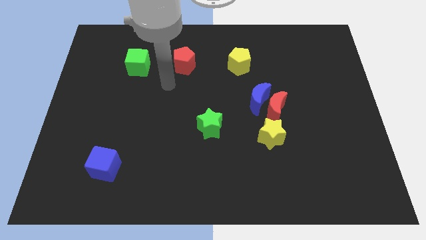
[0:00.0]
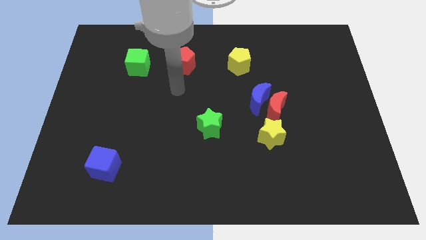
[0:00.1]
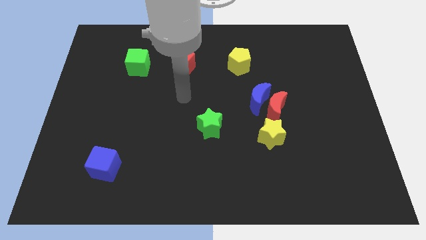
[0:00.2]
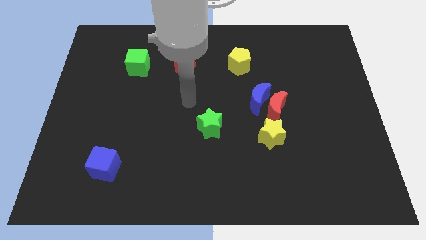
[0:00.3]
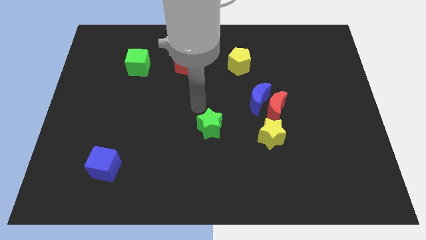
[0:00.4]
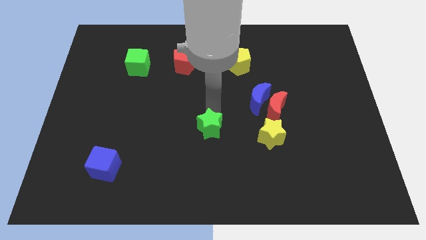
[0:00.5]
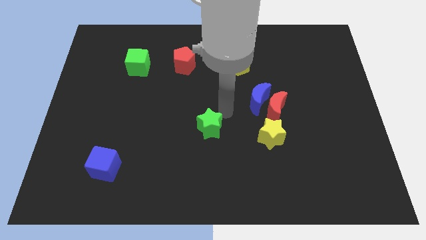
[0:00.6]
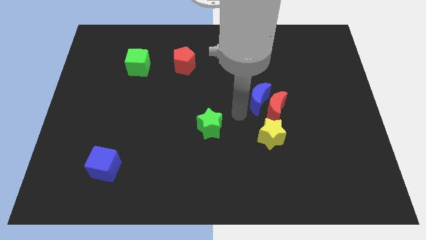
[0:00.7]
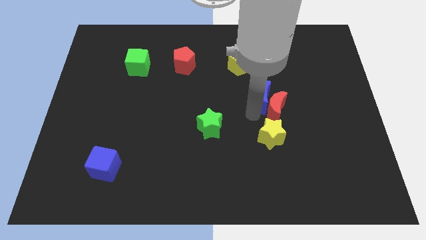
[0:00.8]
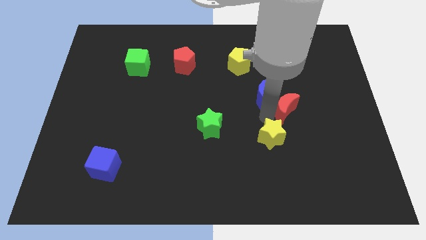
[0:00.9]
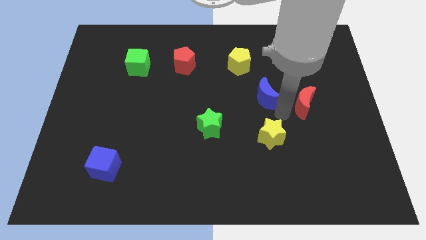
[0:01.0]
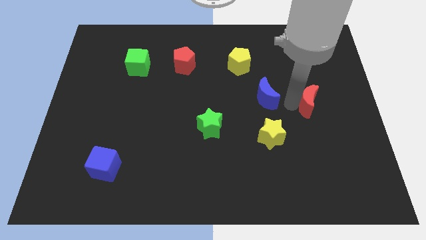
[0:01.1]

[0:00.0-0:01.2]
pull the blue moon apart from the red moon

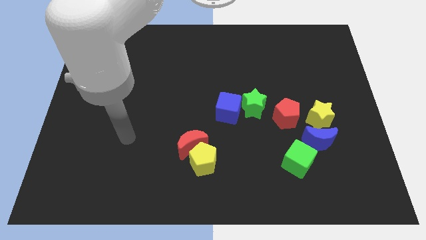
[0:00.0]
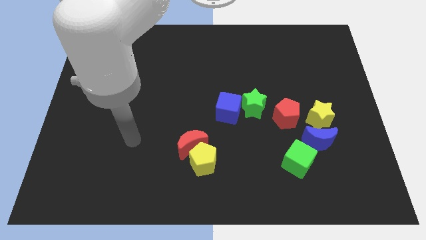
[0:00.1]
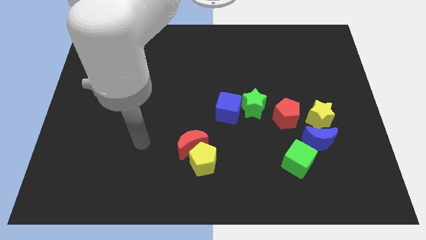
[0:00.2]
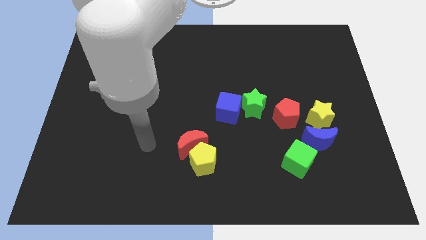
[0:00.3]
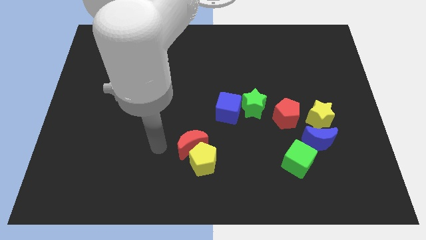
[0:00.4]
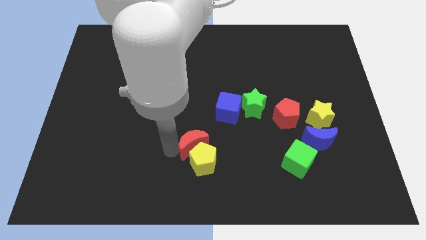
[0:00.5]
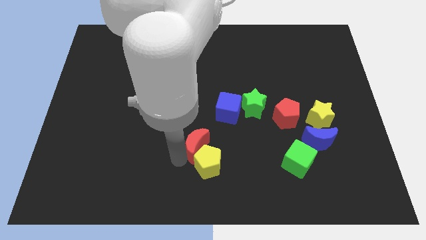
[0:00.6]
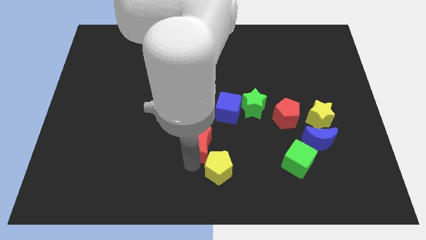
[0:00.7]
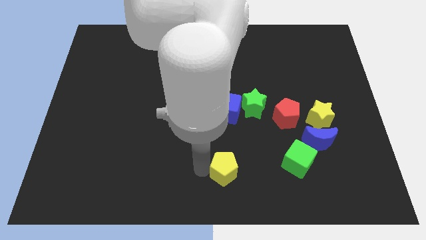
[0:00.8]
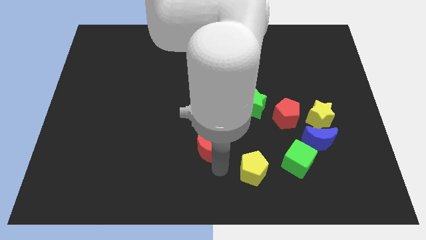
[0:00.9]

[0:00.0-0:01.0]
pull the red moon apart from the yellow pentagon

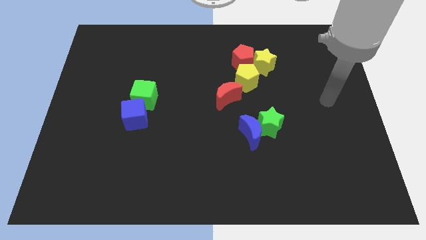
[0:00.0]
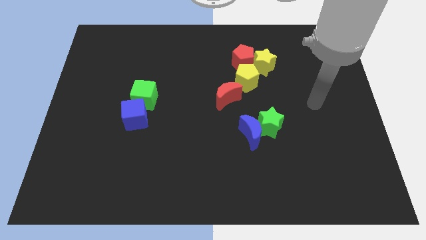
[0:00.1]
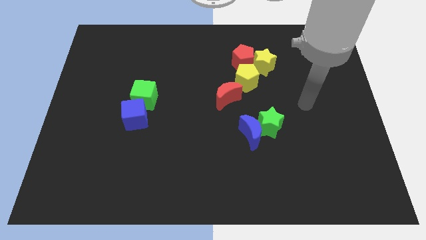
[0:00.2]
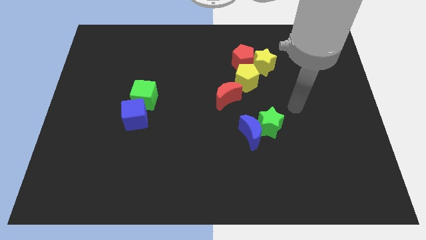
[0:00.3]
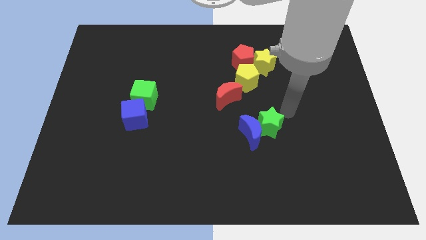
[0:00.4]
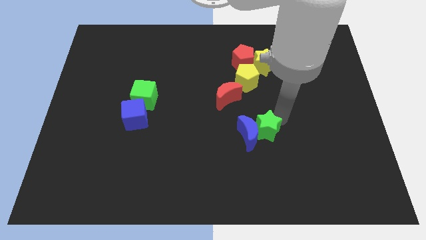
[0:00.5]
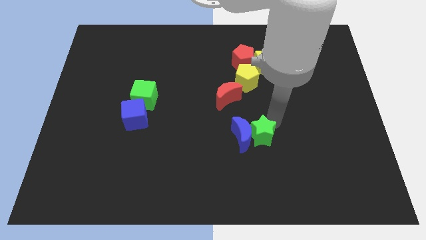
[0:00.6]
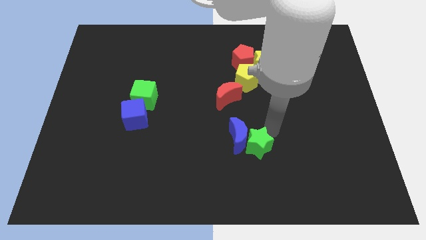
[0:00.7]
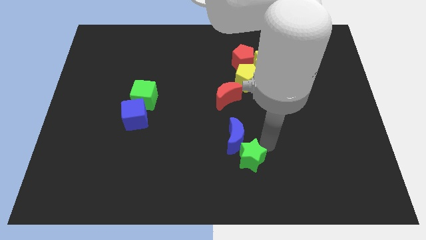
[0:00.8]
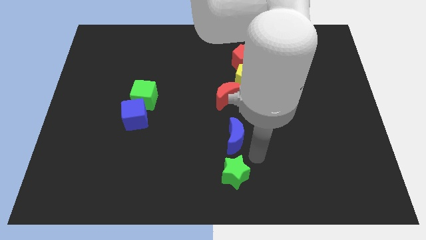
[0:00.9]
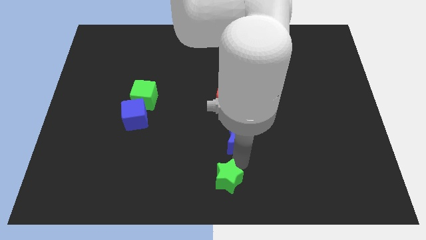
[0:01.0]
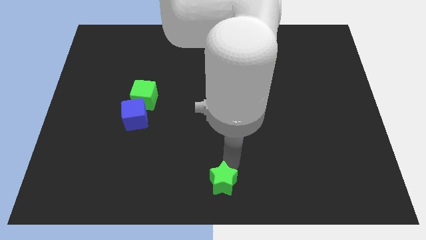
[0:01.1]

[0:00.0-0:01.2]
separate the blue moon from the green star

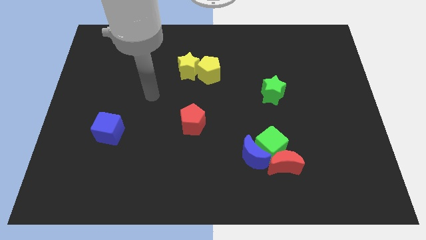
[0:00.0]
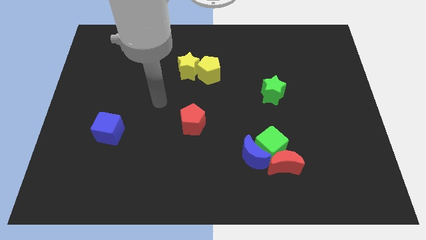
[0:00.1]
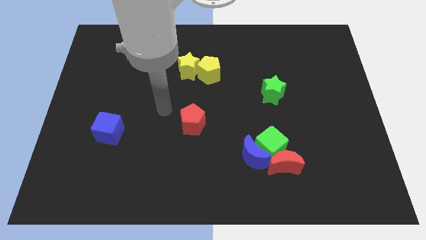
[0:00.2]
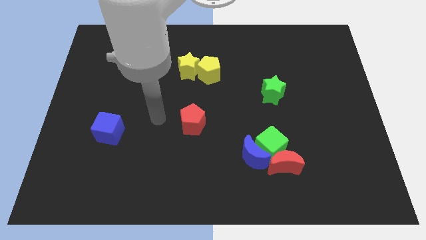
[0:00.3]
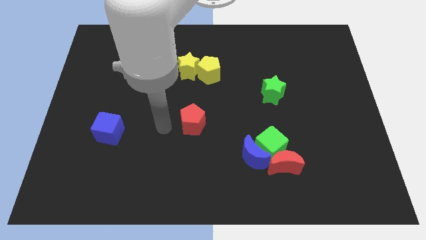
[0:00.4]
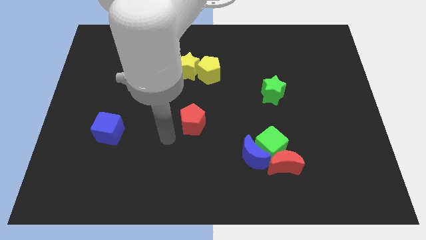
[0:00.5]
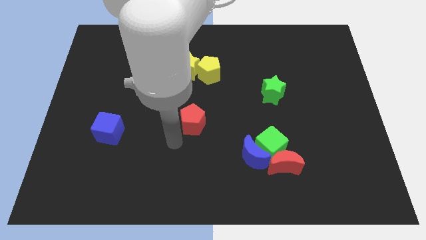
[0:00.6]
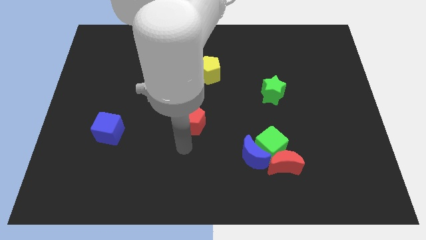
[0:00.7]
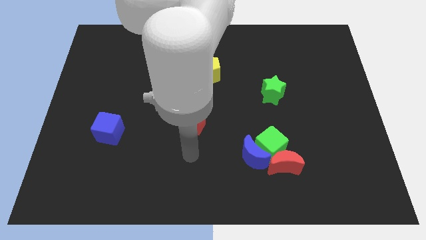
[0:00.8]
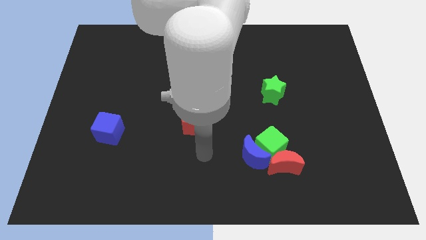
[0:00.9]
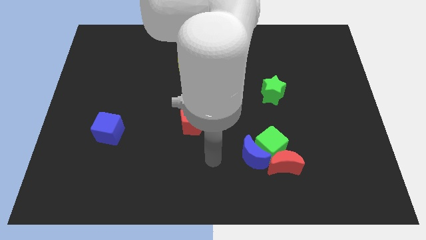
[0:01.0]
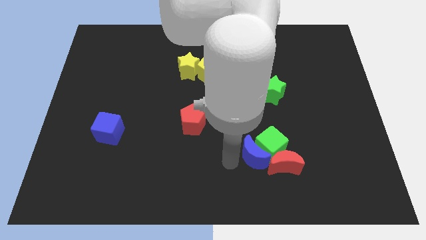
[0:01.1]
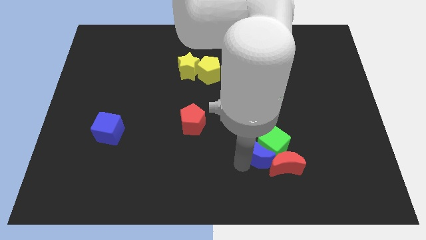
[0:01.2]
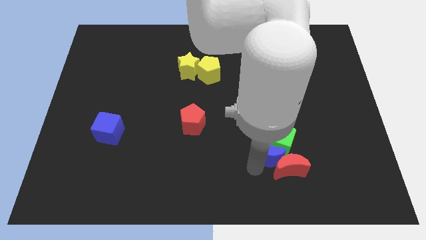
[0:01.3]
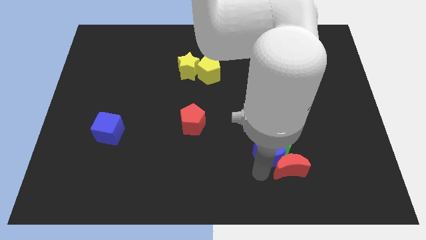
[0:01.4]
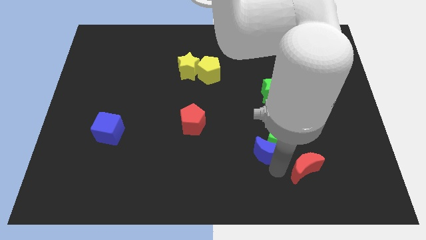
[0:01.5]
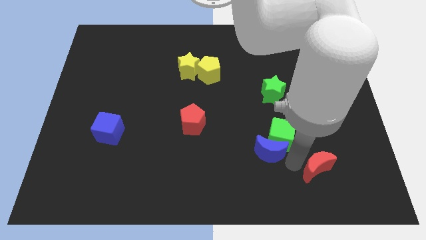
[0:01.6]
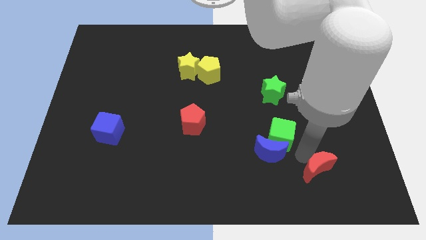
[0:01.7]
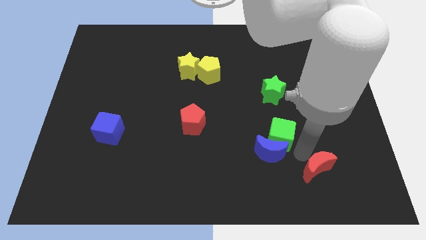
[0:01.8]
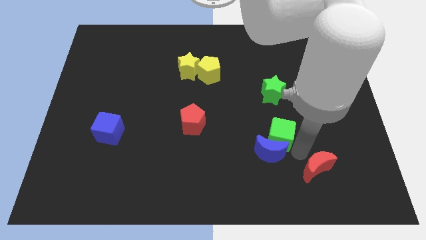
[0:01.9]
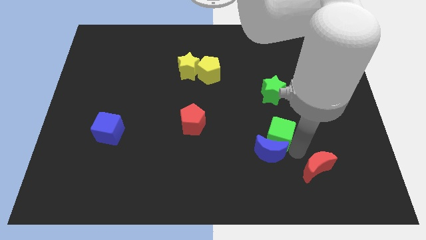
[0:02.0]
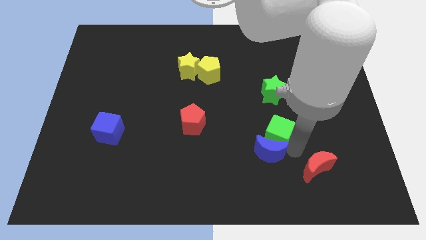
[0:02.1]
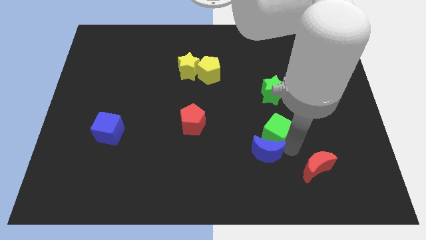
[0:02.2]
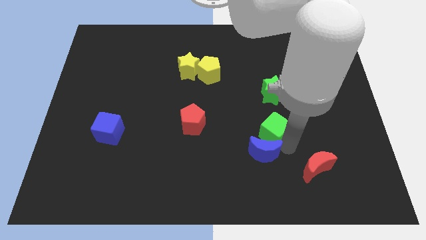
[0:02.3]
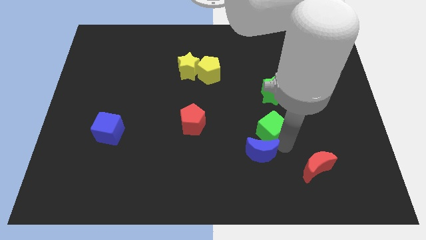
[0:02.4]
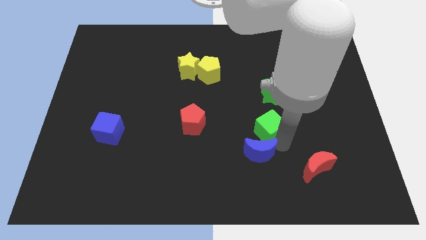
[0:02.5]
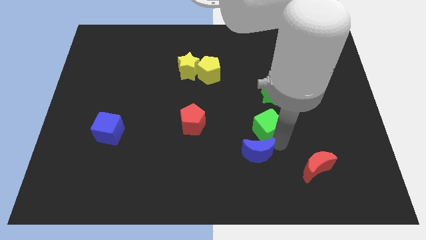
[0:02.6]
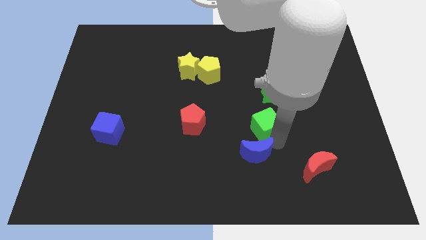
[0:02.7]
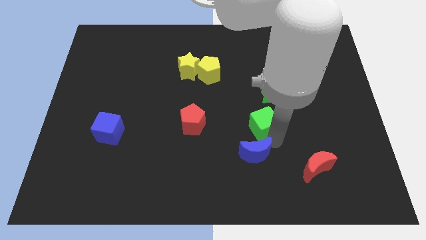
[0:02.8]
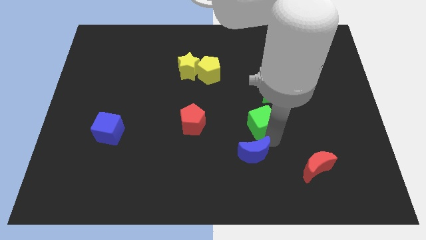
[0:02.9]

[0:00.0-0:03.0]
separate the green cube from the blue moon and red moon

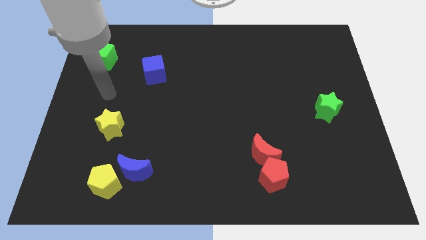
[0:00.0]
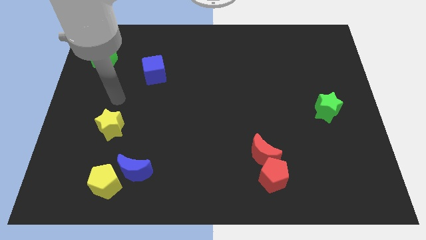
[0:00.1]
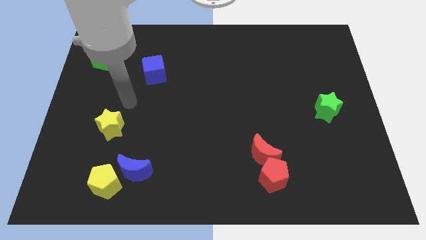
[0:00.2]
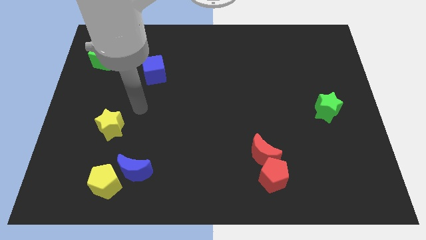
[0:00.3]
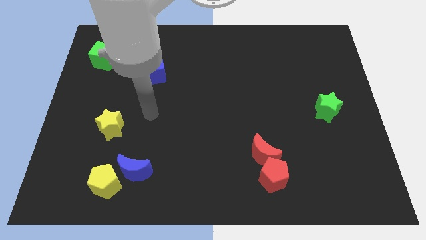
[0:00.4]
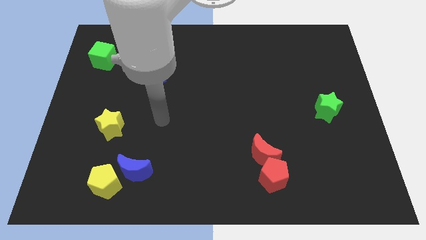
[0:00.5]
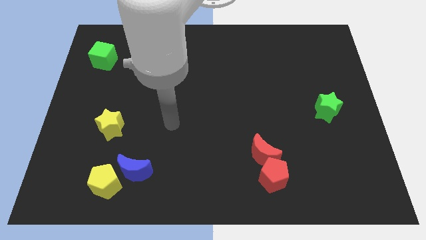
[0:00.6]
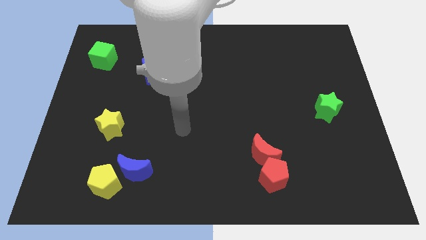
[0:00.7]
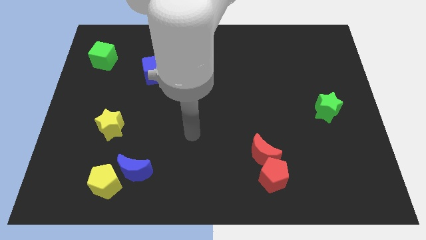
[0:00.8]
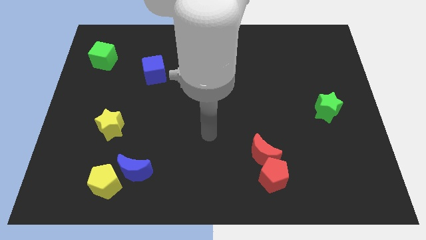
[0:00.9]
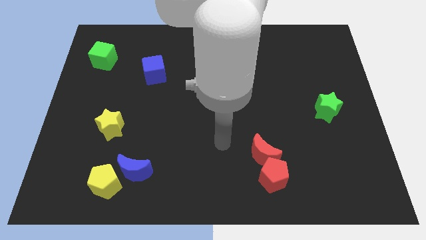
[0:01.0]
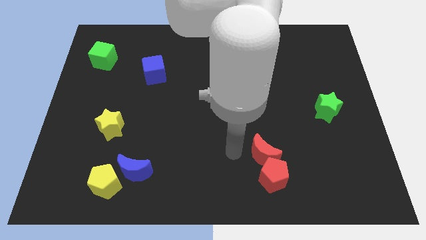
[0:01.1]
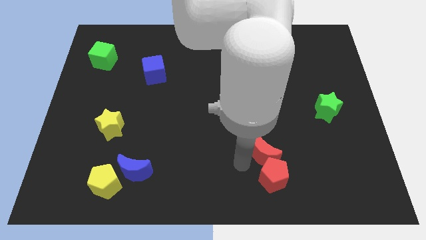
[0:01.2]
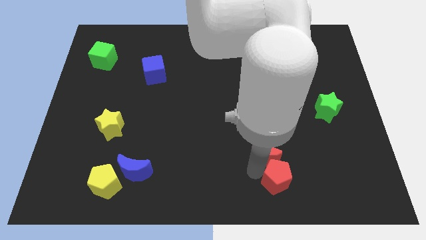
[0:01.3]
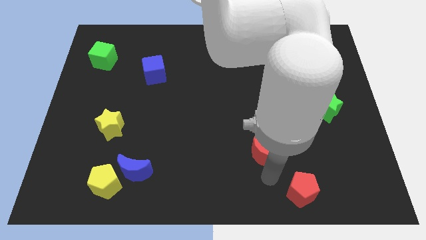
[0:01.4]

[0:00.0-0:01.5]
pull the red moon apart from the red pentagon

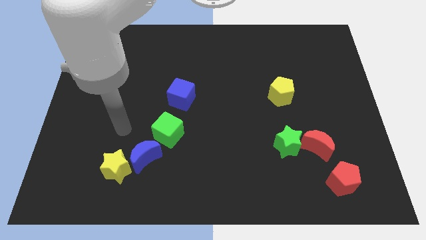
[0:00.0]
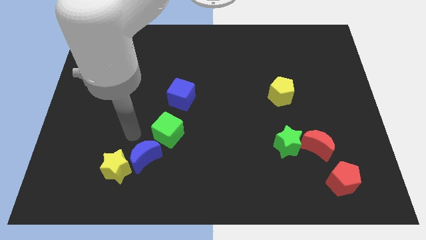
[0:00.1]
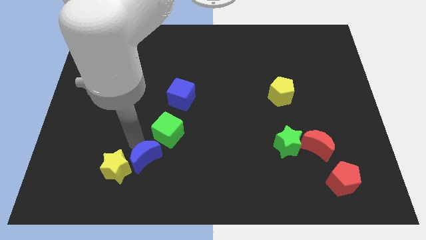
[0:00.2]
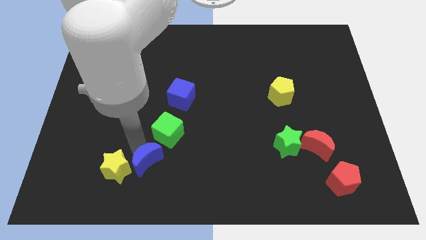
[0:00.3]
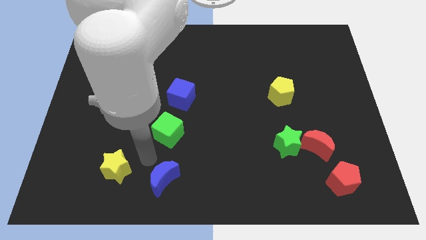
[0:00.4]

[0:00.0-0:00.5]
separate the yellow star from the blue moon

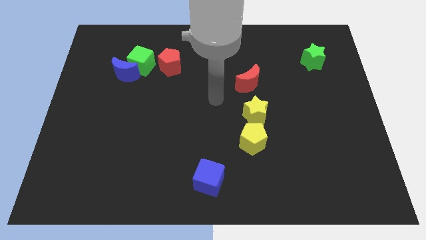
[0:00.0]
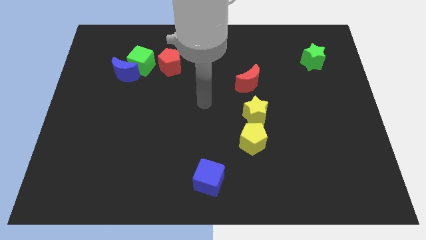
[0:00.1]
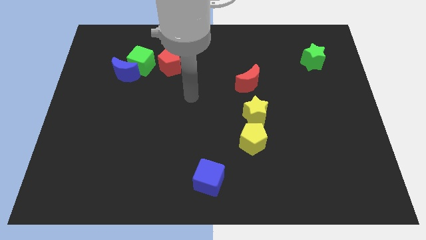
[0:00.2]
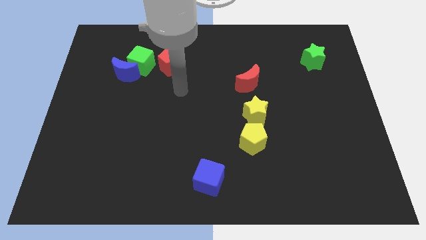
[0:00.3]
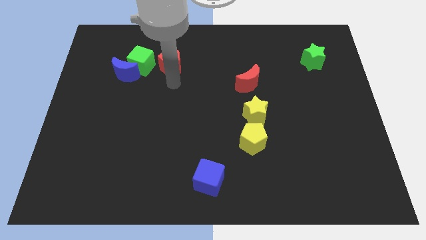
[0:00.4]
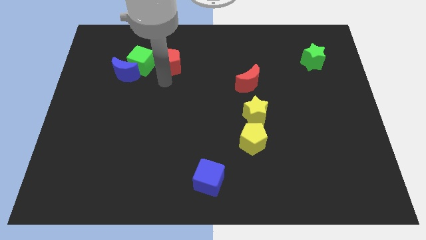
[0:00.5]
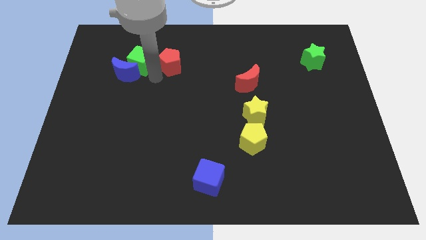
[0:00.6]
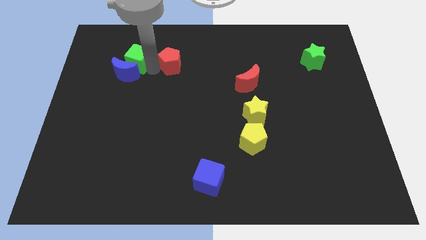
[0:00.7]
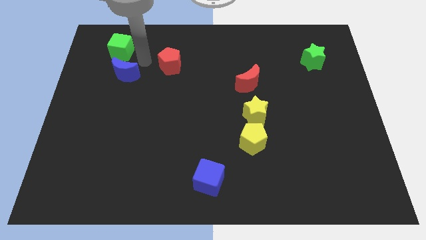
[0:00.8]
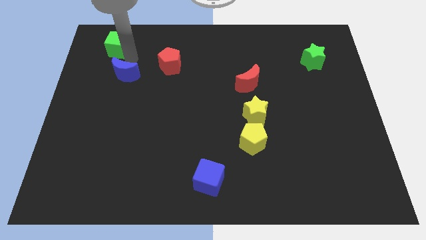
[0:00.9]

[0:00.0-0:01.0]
pull the blue moon apart from the green cube

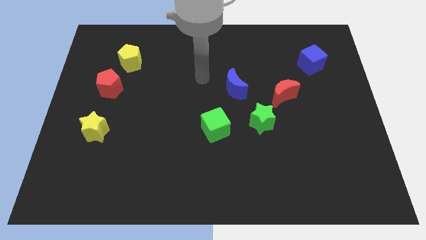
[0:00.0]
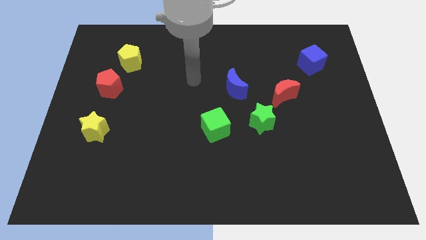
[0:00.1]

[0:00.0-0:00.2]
pull the red pentagon apart from the yellow pentagon
